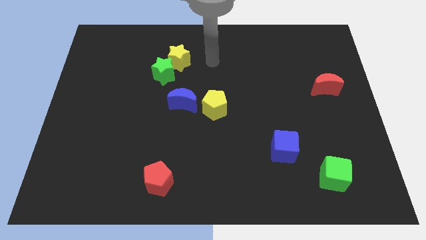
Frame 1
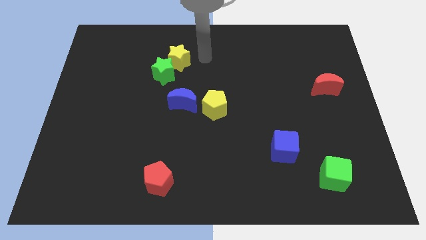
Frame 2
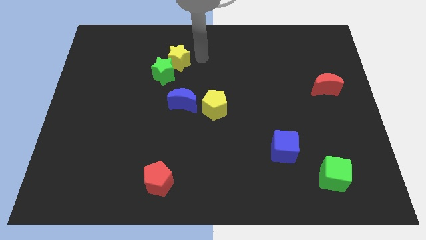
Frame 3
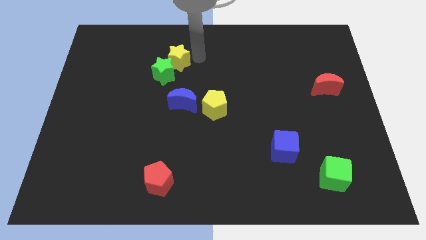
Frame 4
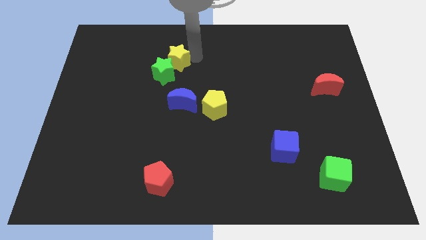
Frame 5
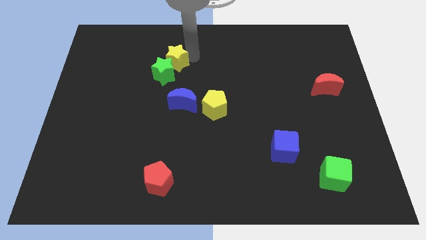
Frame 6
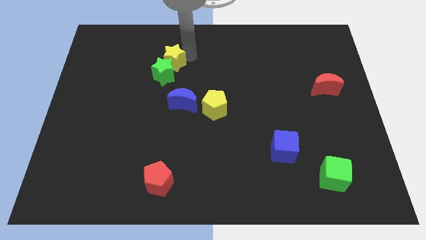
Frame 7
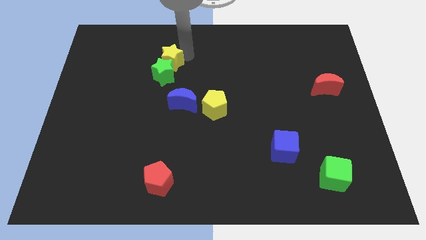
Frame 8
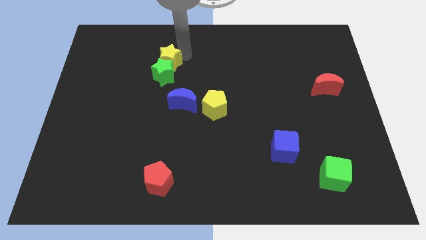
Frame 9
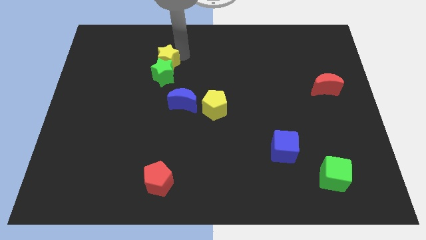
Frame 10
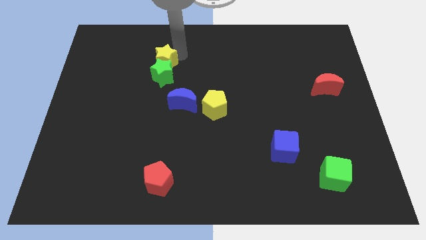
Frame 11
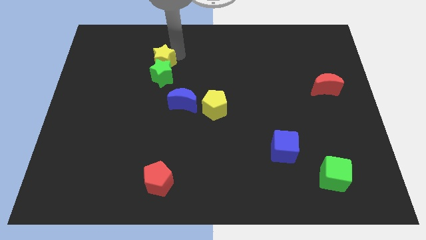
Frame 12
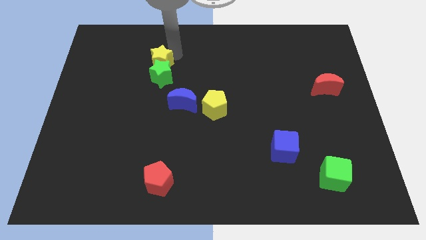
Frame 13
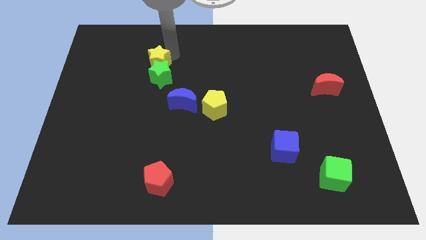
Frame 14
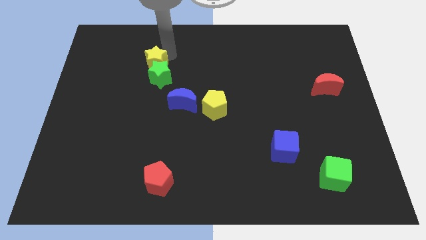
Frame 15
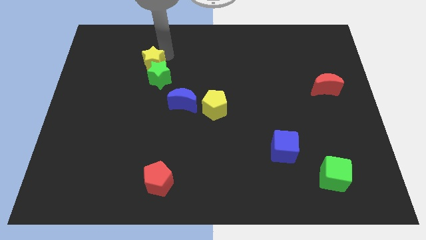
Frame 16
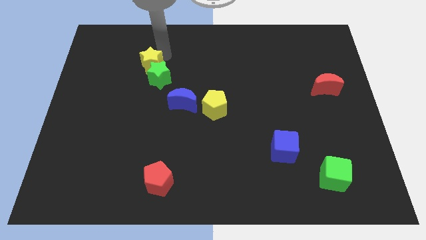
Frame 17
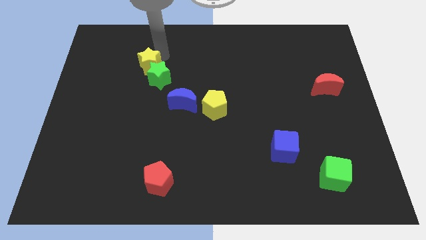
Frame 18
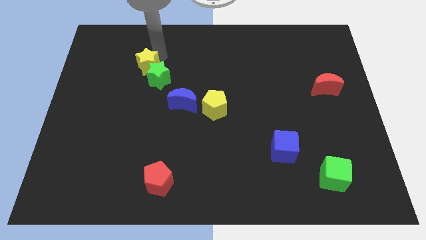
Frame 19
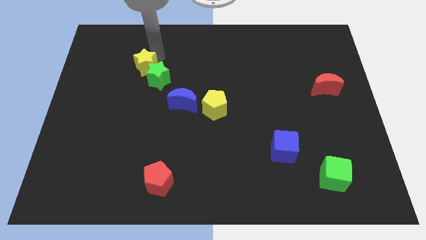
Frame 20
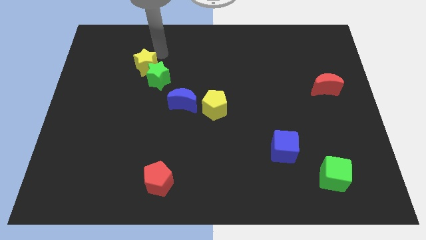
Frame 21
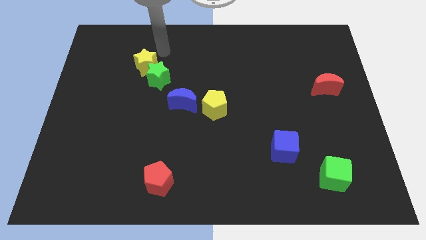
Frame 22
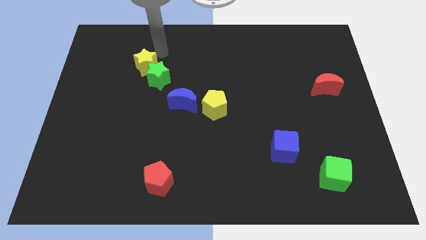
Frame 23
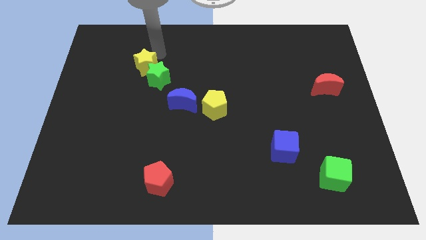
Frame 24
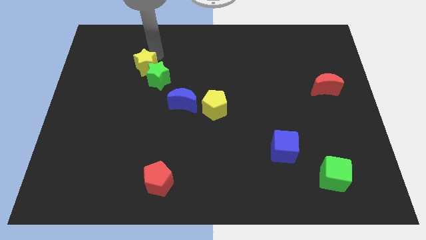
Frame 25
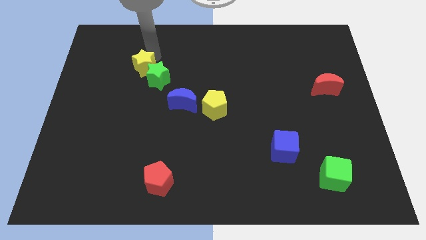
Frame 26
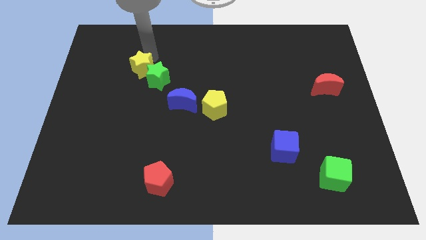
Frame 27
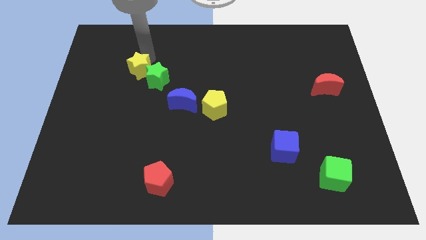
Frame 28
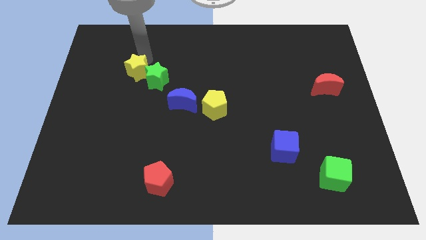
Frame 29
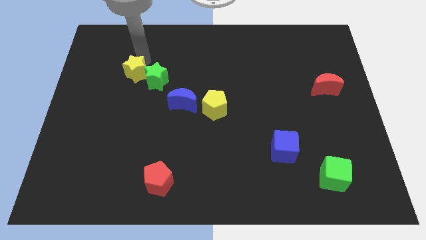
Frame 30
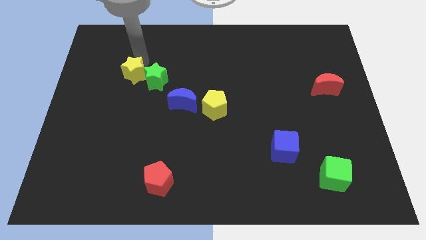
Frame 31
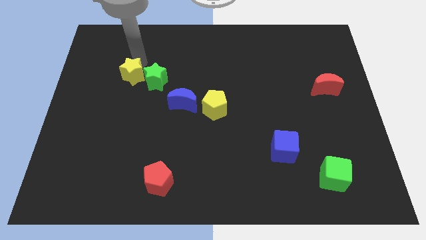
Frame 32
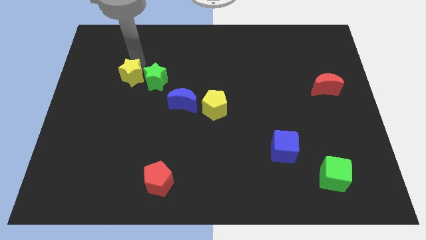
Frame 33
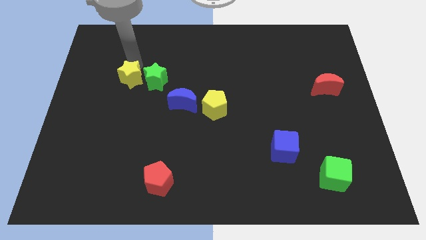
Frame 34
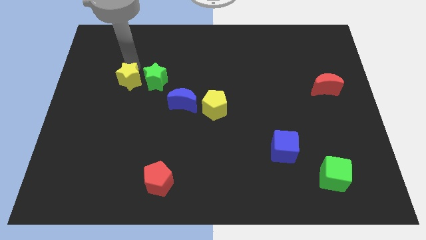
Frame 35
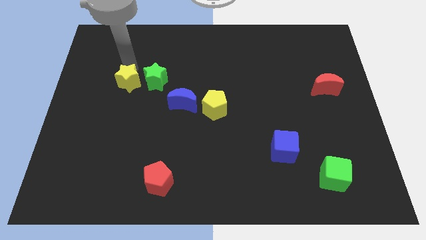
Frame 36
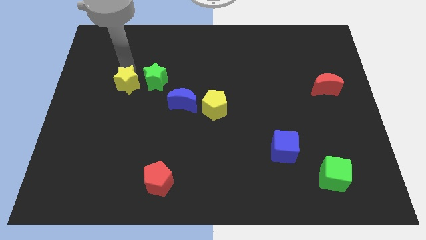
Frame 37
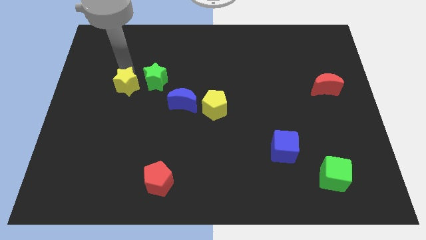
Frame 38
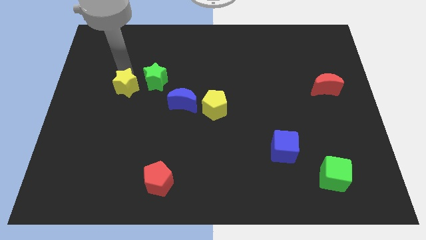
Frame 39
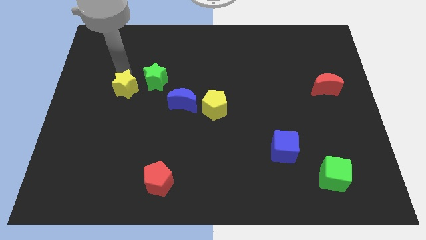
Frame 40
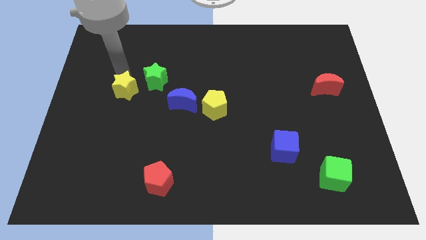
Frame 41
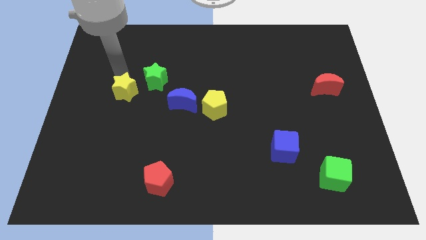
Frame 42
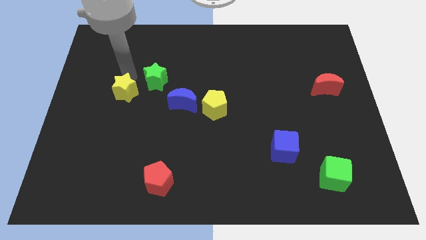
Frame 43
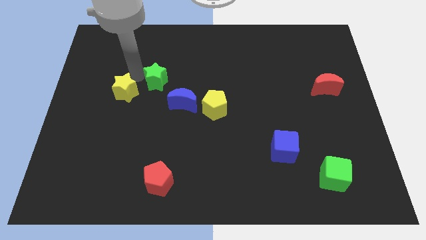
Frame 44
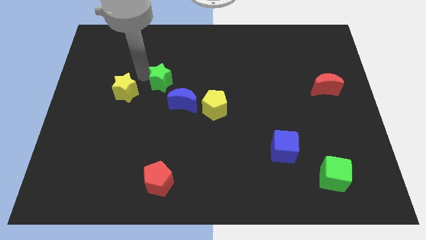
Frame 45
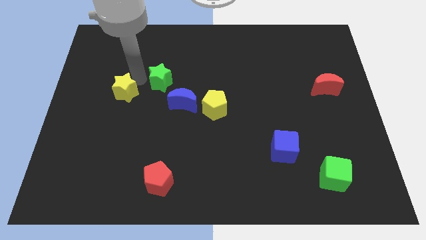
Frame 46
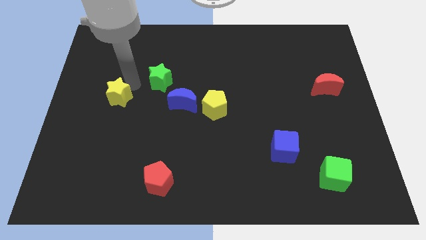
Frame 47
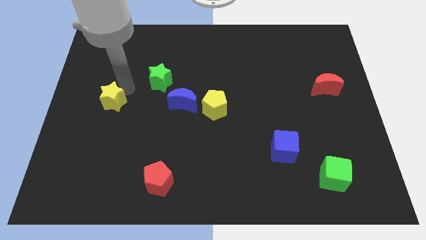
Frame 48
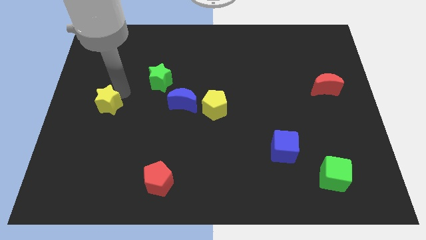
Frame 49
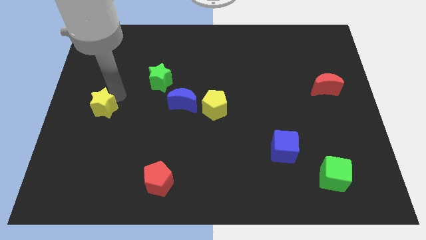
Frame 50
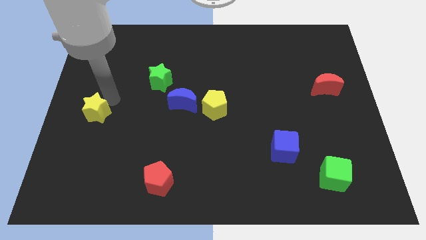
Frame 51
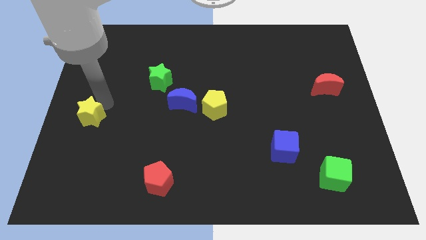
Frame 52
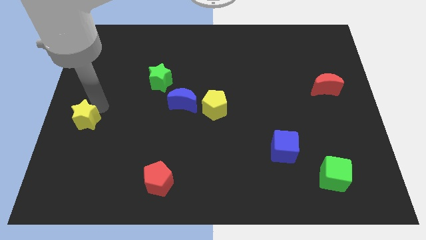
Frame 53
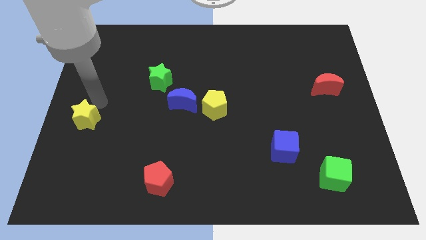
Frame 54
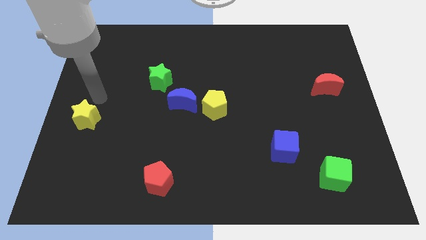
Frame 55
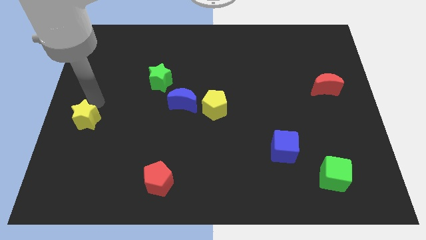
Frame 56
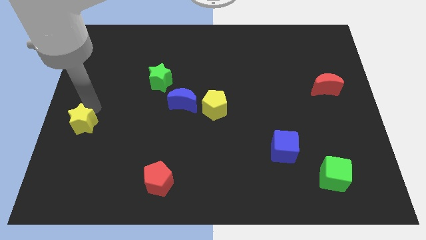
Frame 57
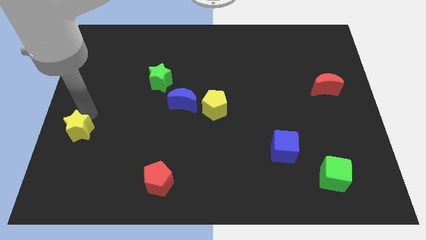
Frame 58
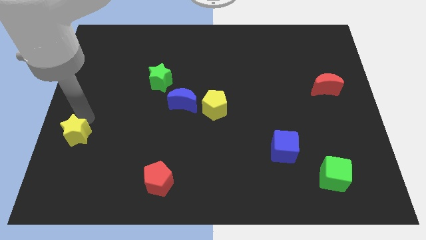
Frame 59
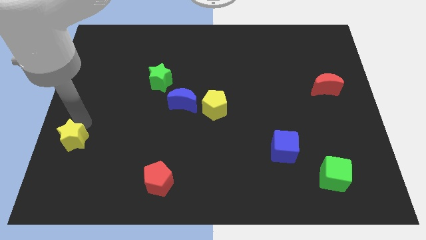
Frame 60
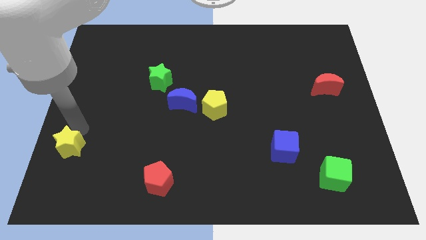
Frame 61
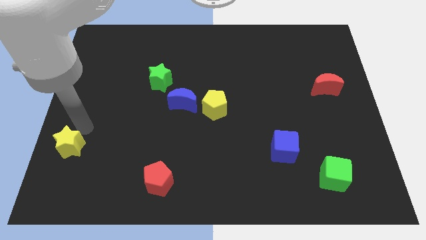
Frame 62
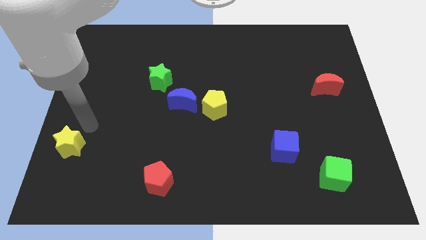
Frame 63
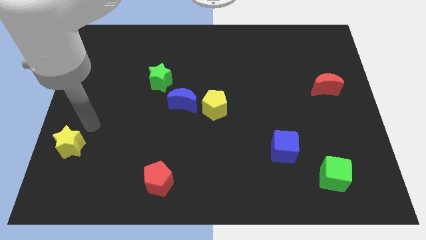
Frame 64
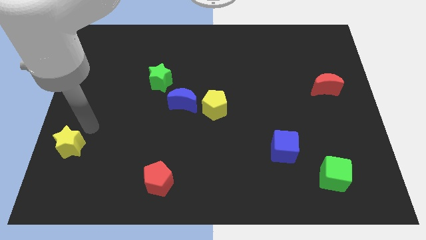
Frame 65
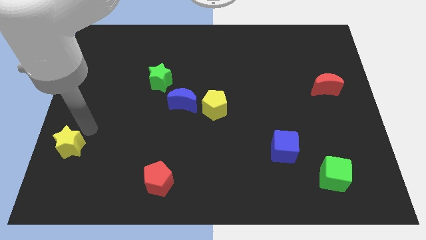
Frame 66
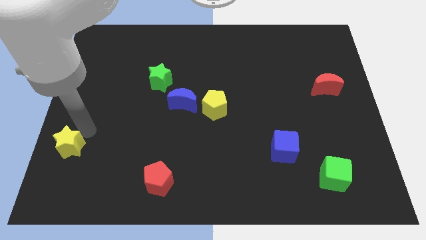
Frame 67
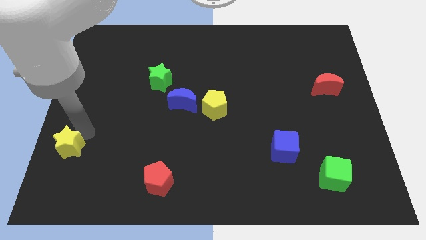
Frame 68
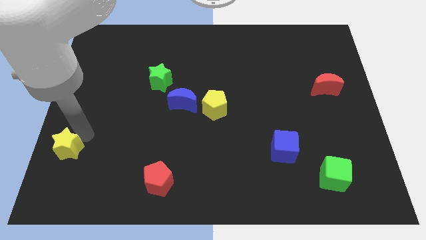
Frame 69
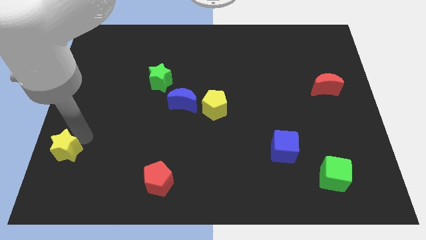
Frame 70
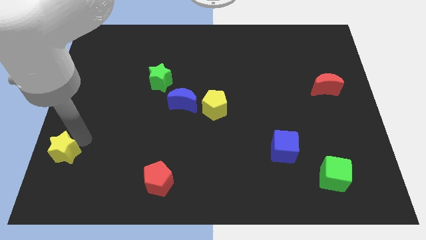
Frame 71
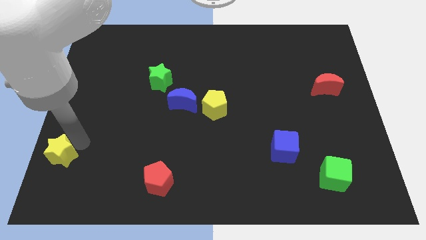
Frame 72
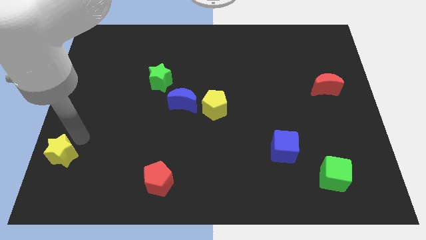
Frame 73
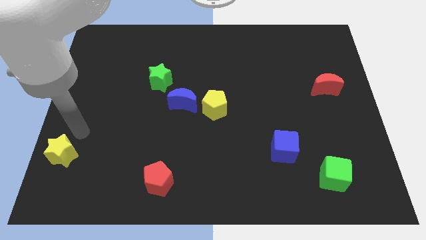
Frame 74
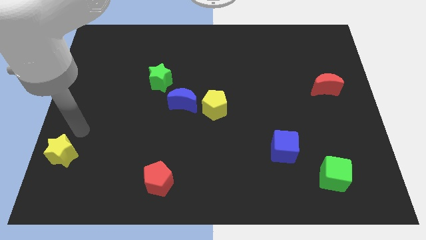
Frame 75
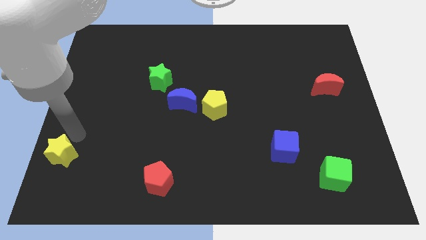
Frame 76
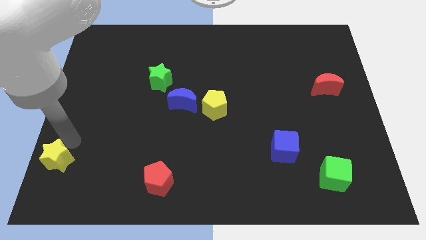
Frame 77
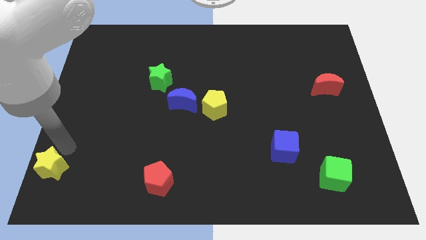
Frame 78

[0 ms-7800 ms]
put the yellow star to the bottom left of the board
